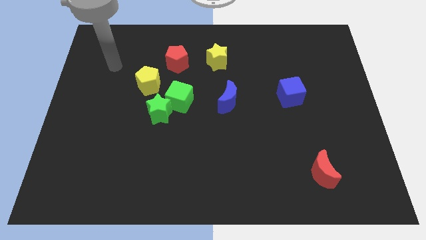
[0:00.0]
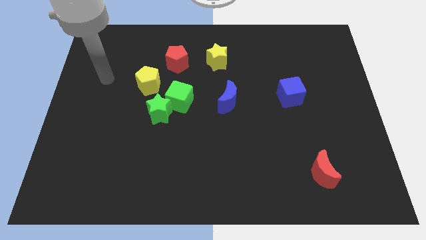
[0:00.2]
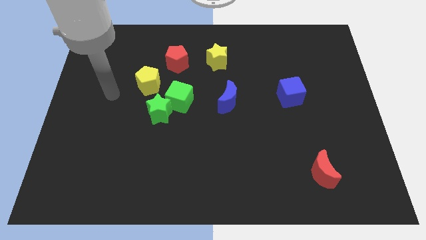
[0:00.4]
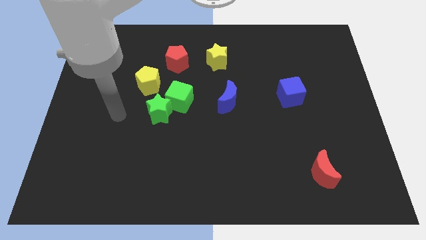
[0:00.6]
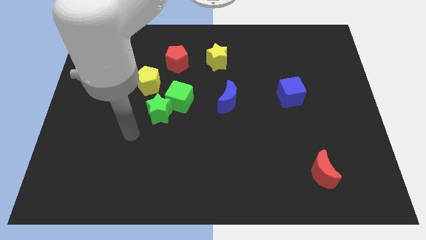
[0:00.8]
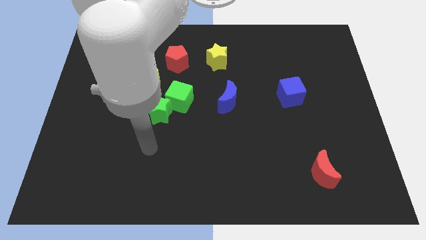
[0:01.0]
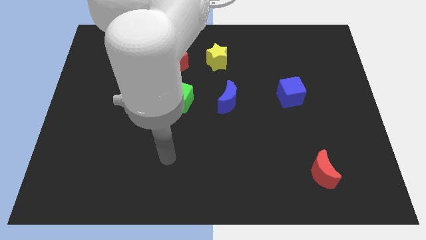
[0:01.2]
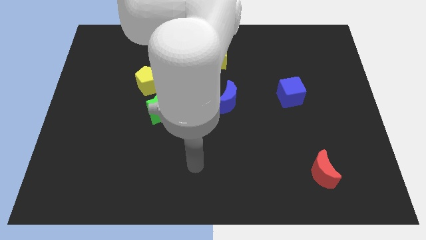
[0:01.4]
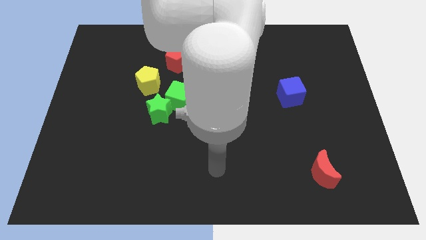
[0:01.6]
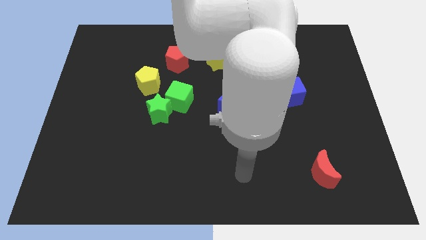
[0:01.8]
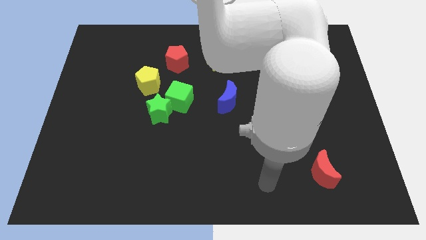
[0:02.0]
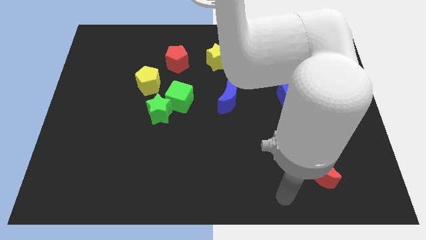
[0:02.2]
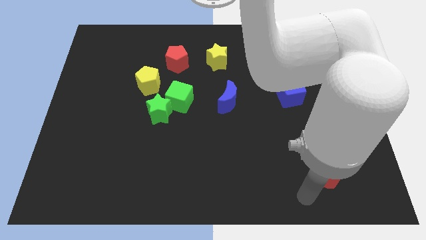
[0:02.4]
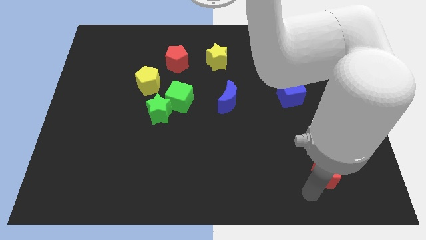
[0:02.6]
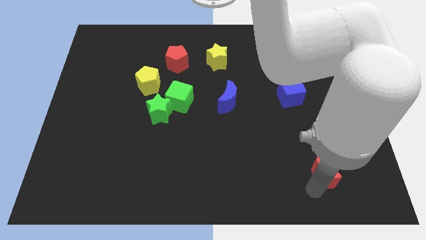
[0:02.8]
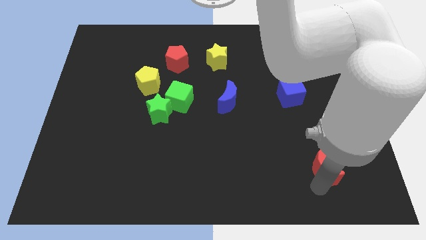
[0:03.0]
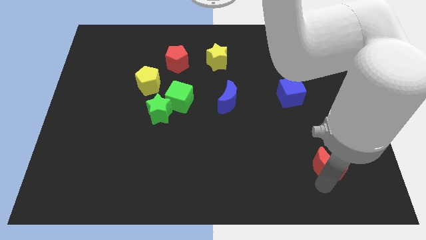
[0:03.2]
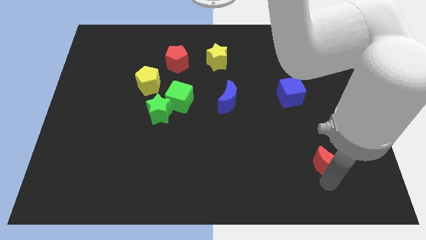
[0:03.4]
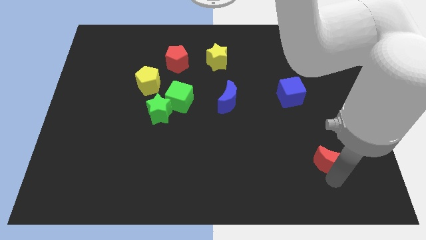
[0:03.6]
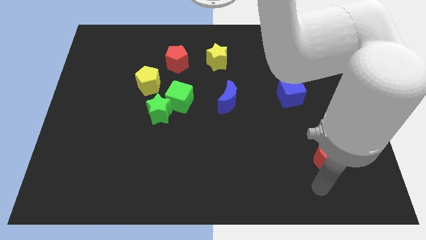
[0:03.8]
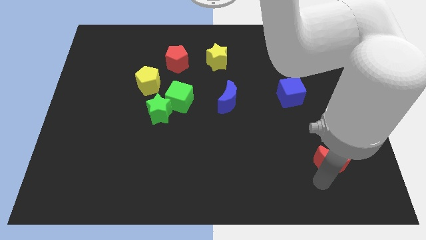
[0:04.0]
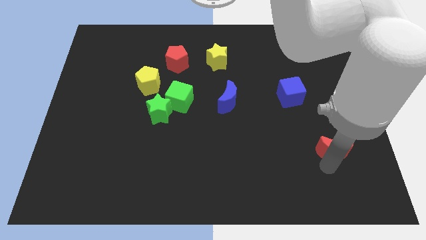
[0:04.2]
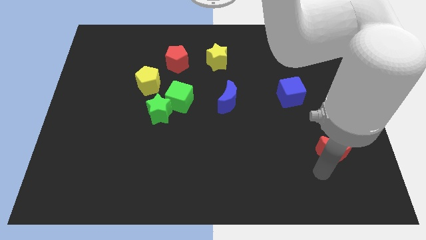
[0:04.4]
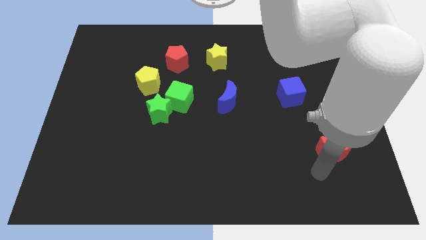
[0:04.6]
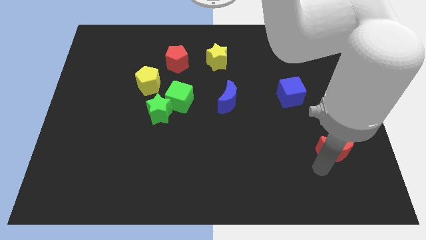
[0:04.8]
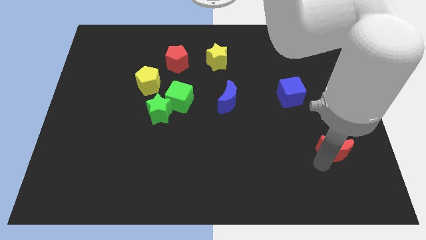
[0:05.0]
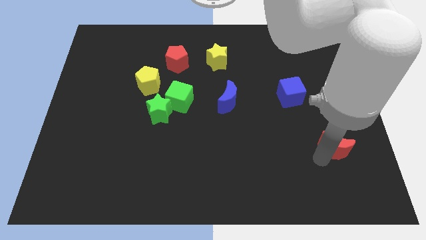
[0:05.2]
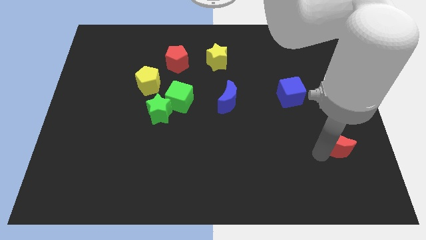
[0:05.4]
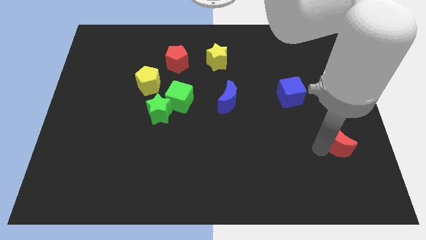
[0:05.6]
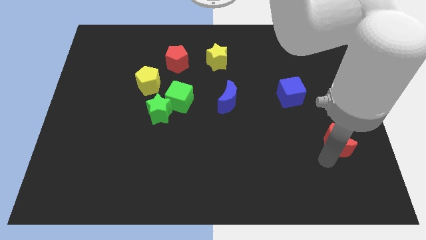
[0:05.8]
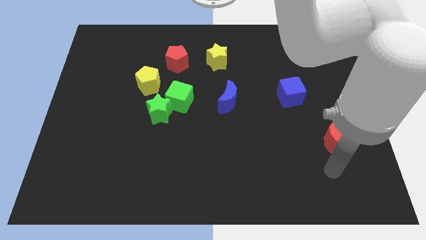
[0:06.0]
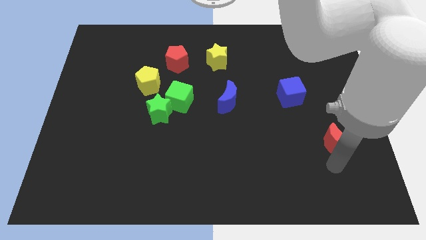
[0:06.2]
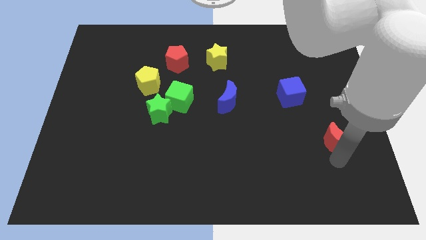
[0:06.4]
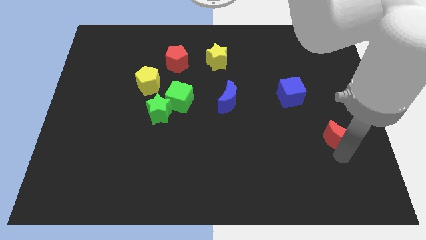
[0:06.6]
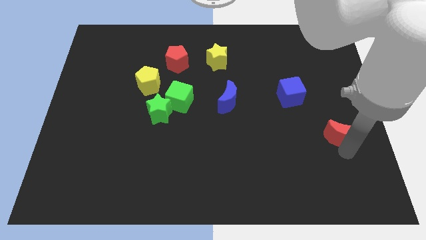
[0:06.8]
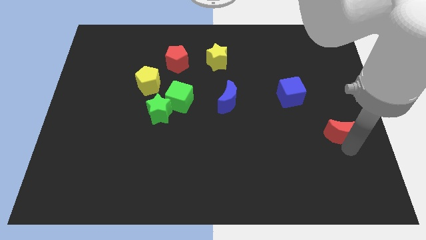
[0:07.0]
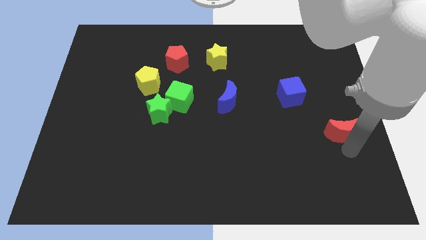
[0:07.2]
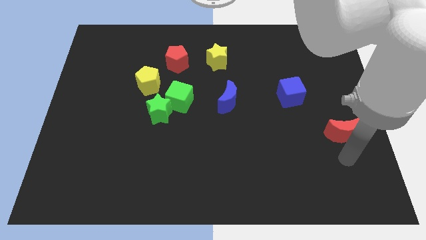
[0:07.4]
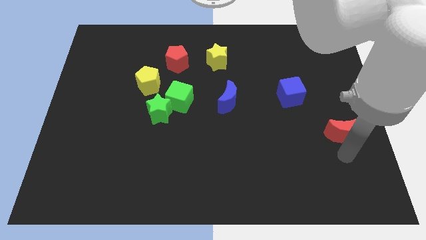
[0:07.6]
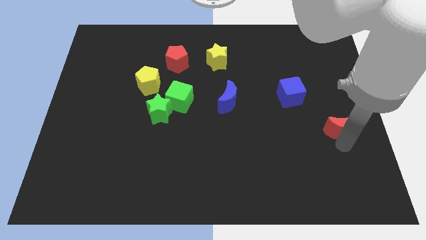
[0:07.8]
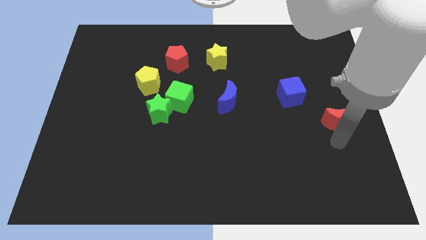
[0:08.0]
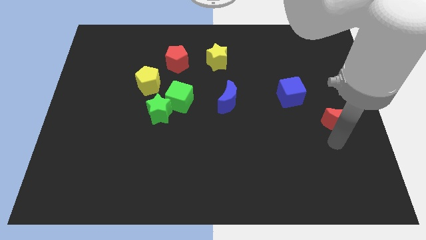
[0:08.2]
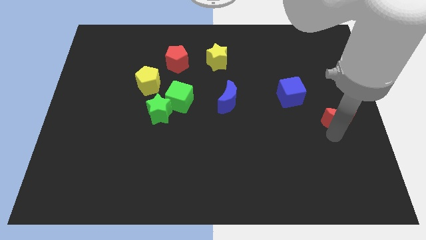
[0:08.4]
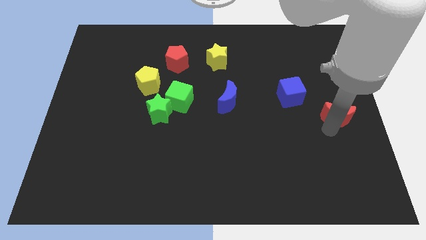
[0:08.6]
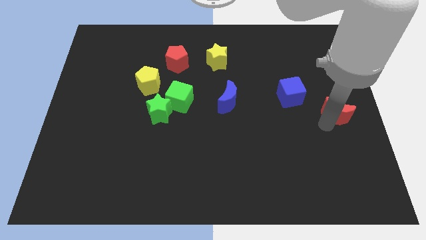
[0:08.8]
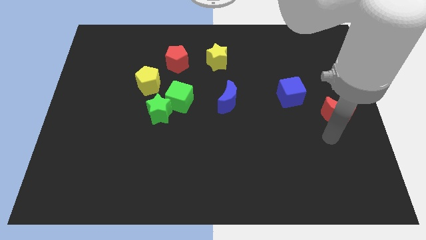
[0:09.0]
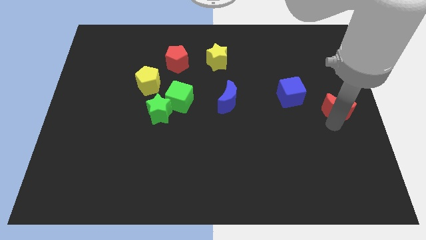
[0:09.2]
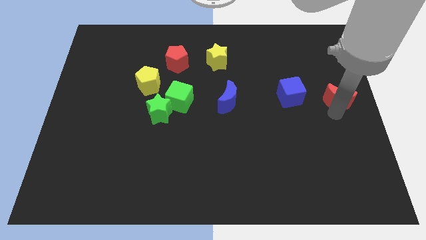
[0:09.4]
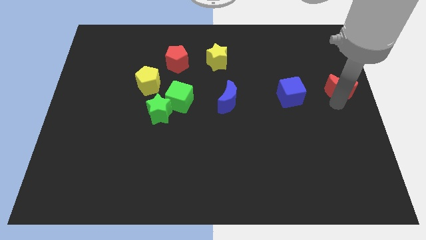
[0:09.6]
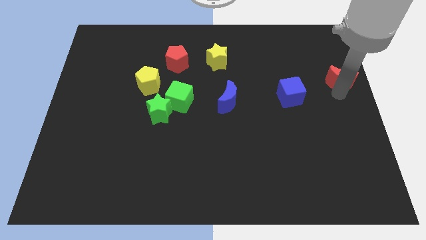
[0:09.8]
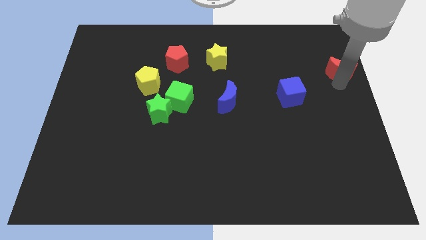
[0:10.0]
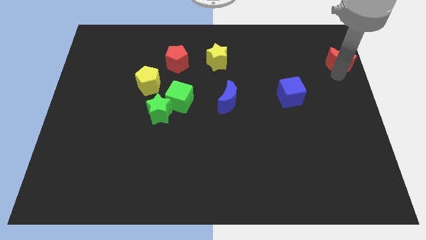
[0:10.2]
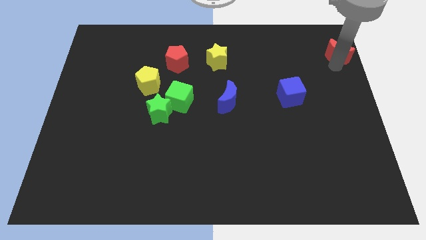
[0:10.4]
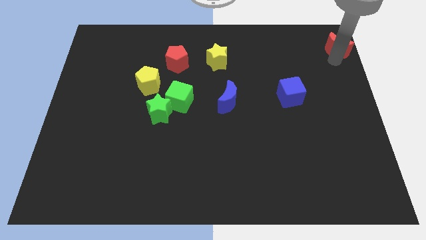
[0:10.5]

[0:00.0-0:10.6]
move the red moon to the top right corner
